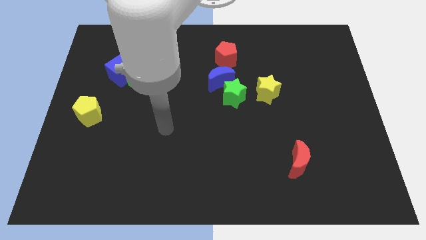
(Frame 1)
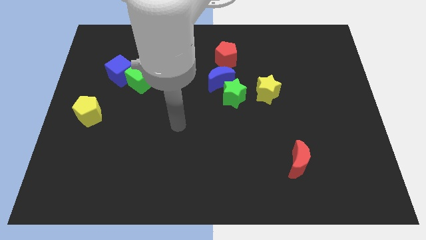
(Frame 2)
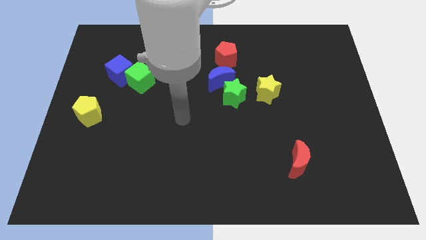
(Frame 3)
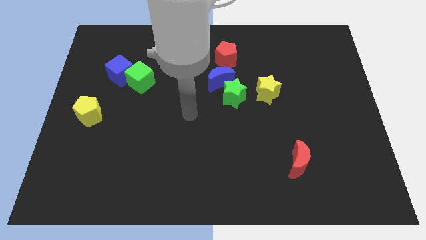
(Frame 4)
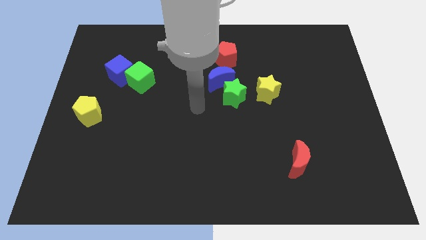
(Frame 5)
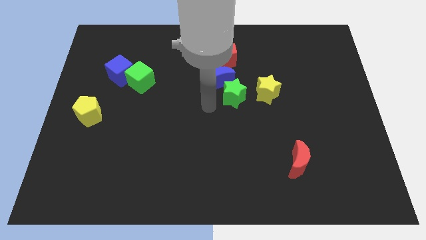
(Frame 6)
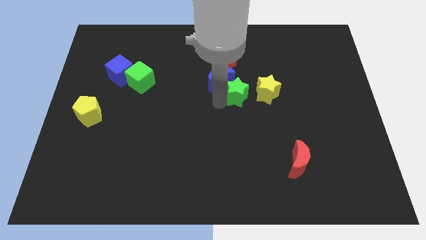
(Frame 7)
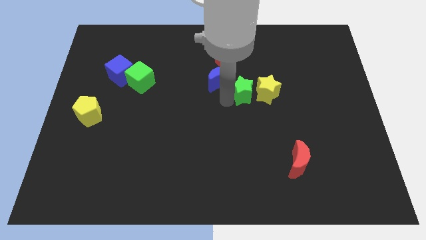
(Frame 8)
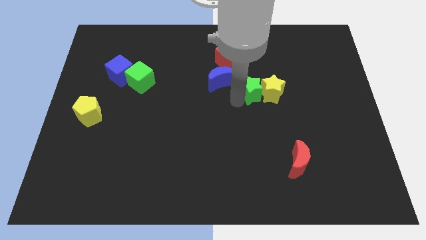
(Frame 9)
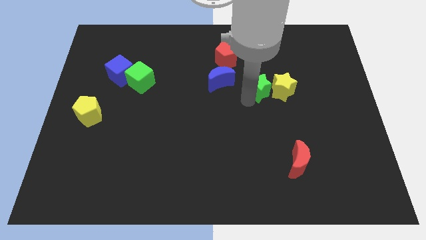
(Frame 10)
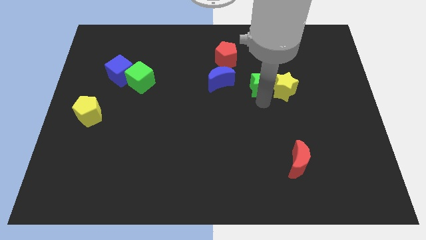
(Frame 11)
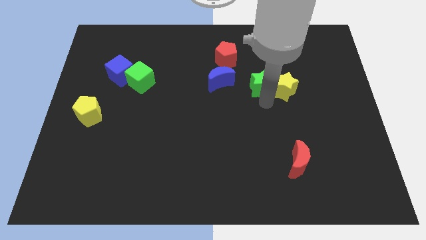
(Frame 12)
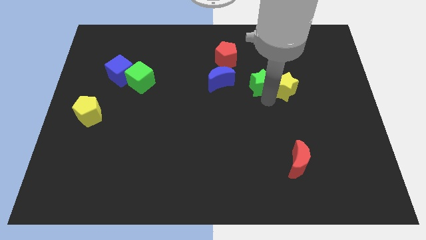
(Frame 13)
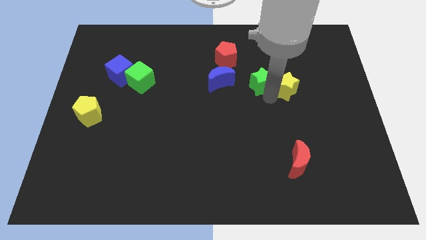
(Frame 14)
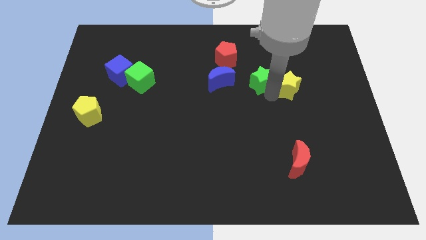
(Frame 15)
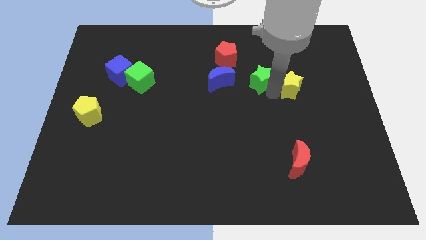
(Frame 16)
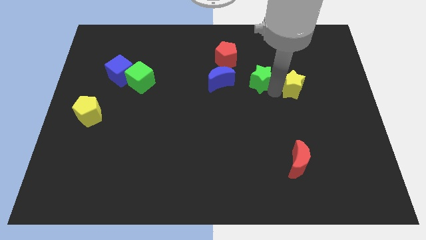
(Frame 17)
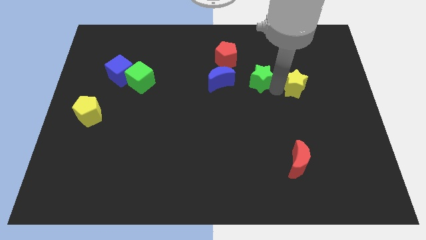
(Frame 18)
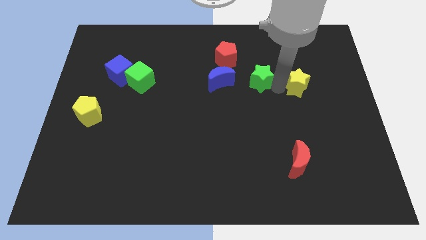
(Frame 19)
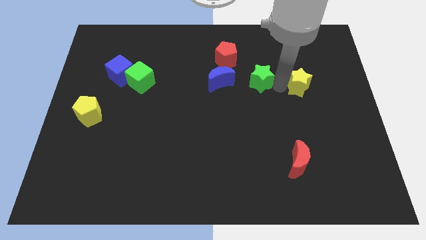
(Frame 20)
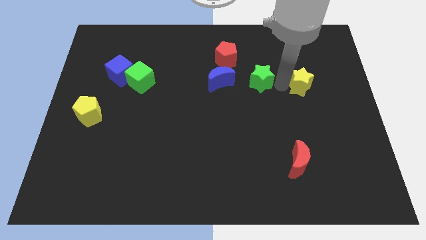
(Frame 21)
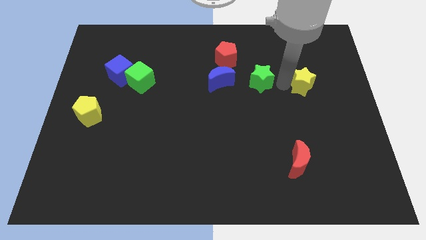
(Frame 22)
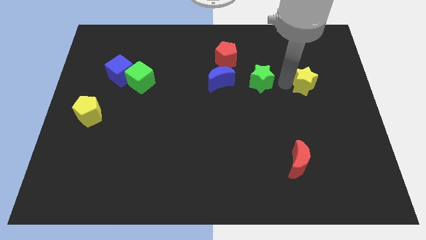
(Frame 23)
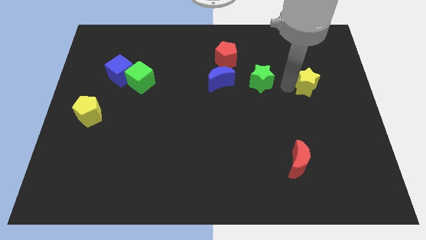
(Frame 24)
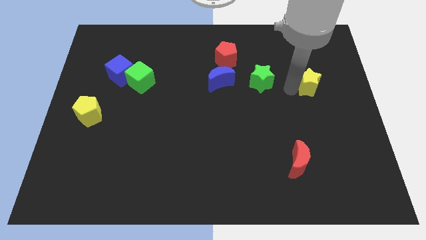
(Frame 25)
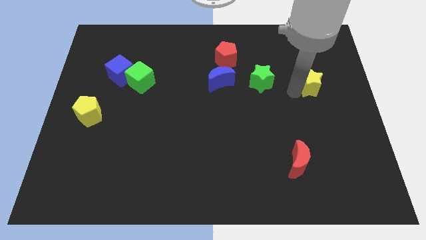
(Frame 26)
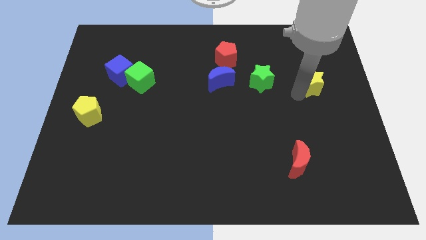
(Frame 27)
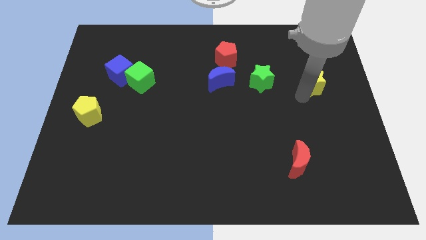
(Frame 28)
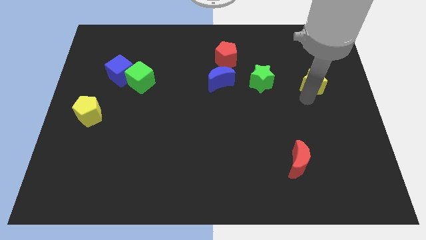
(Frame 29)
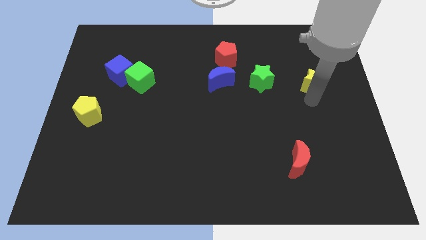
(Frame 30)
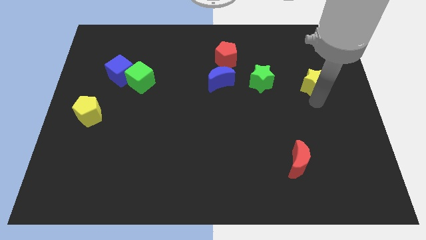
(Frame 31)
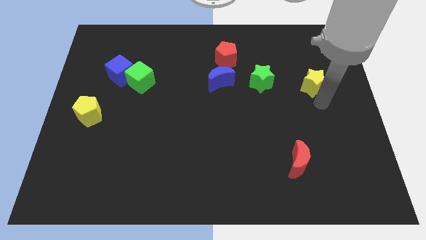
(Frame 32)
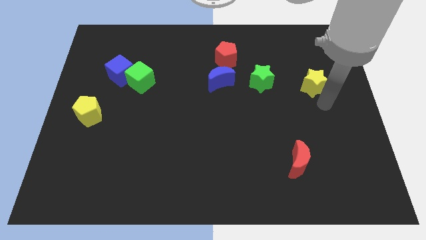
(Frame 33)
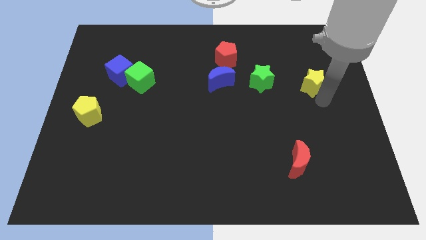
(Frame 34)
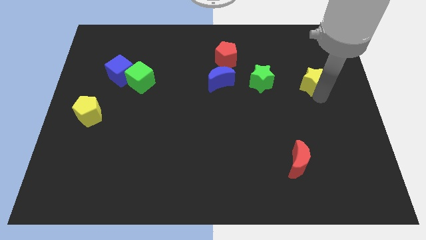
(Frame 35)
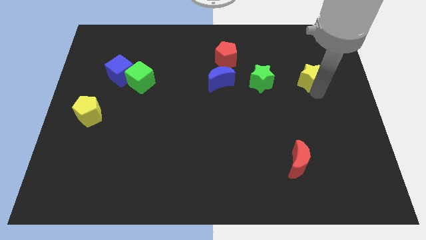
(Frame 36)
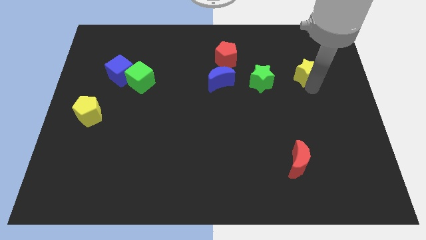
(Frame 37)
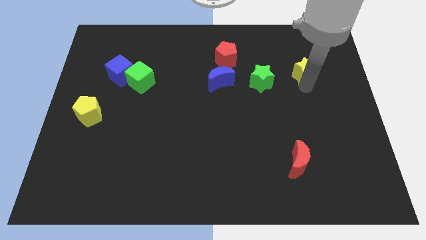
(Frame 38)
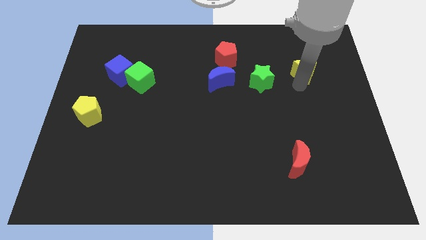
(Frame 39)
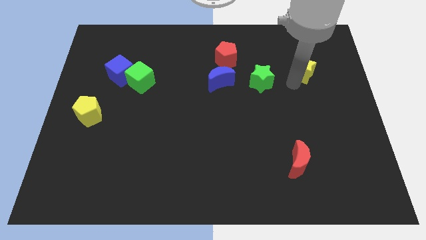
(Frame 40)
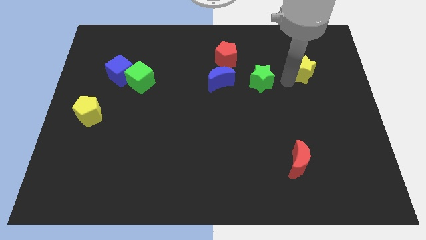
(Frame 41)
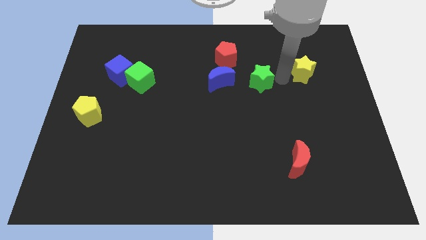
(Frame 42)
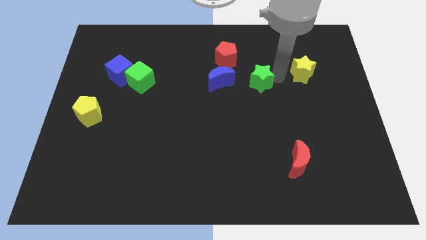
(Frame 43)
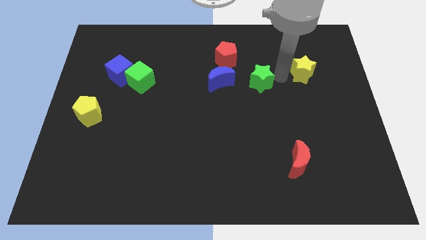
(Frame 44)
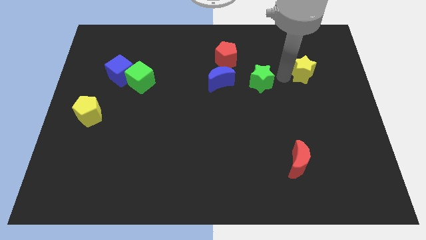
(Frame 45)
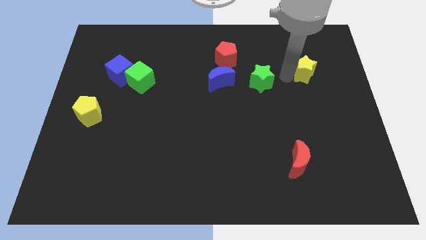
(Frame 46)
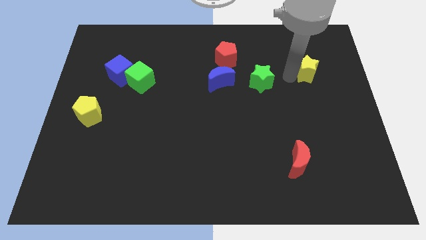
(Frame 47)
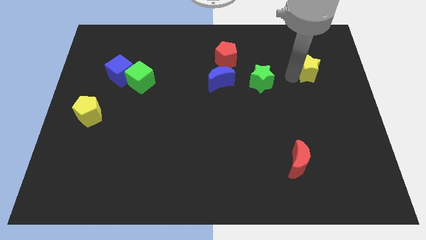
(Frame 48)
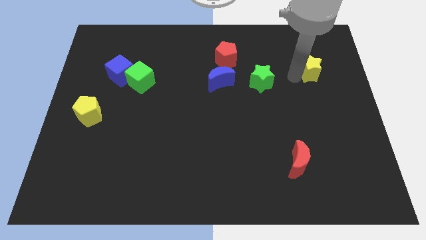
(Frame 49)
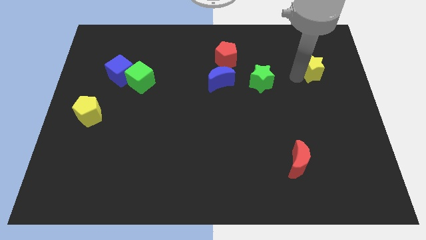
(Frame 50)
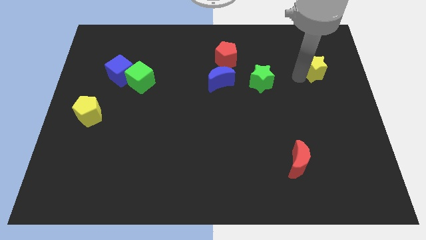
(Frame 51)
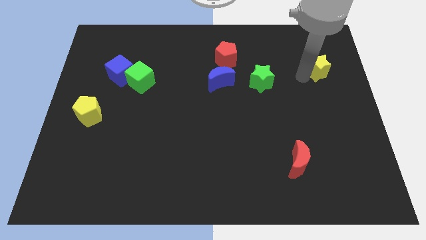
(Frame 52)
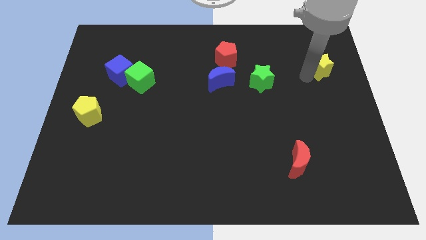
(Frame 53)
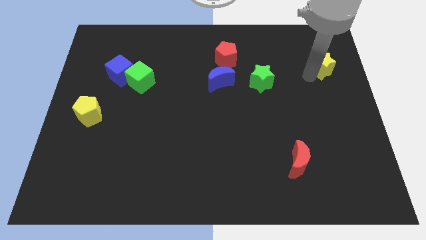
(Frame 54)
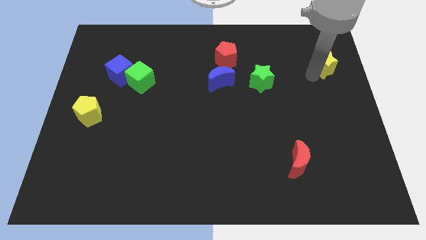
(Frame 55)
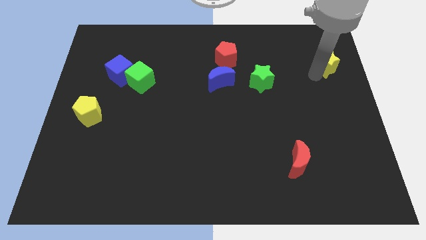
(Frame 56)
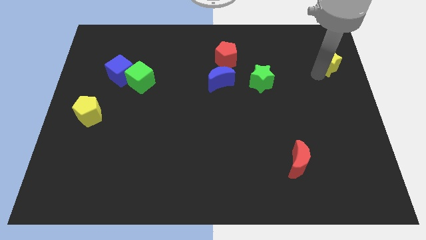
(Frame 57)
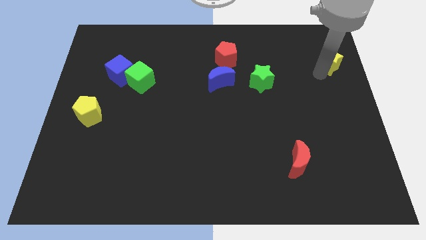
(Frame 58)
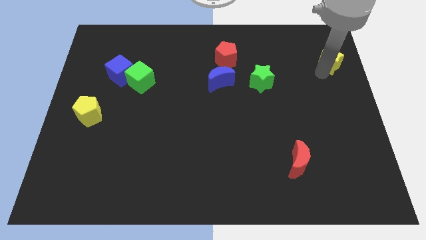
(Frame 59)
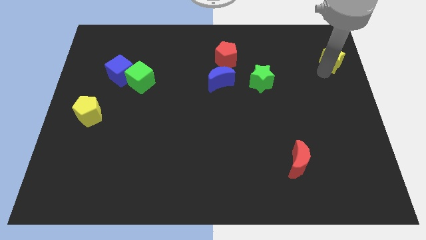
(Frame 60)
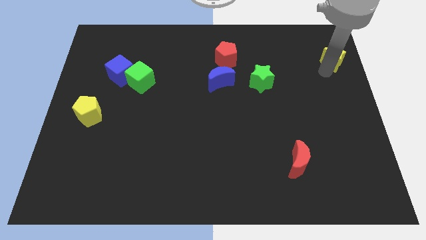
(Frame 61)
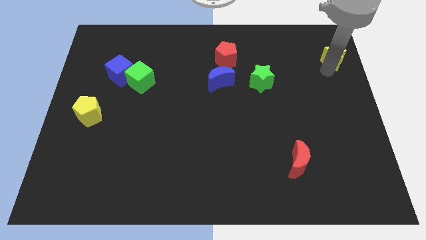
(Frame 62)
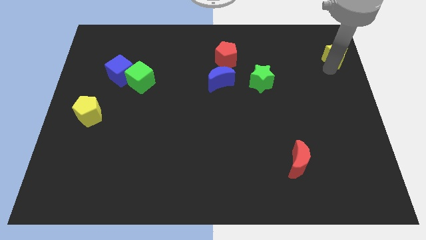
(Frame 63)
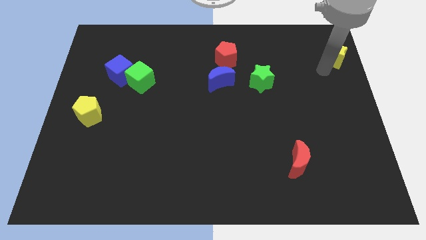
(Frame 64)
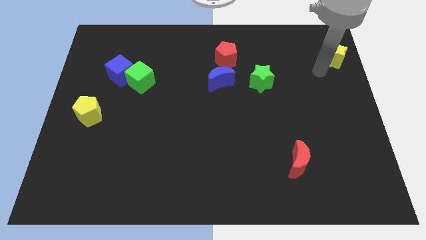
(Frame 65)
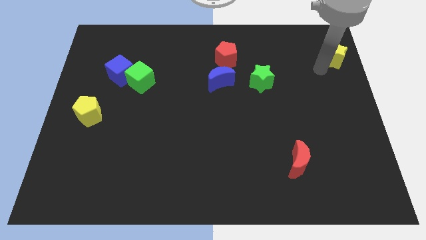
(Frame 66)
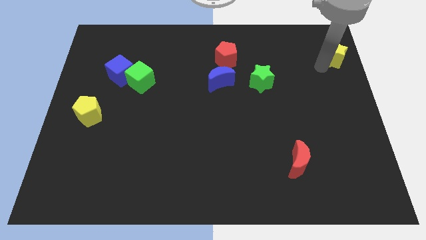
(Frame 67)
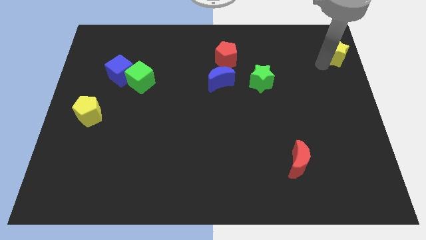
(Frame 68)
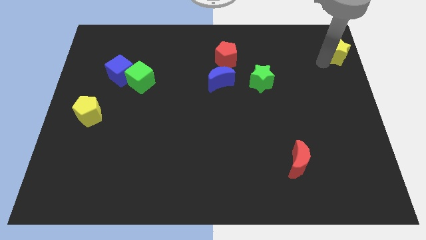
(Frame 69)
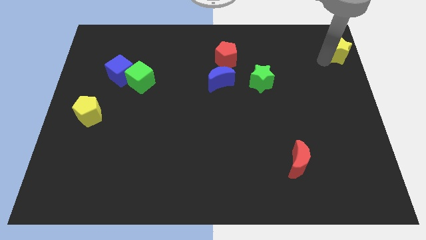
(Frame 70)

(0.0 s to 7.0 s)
push the yellow star to the upper right corner
